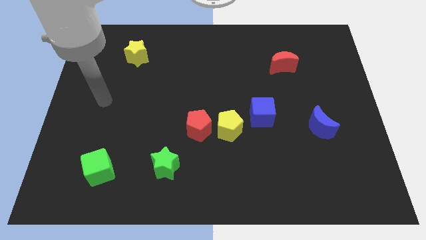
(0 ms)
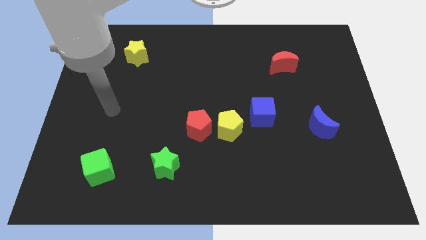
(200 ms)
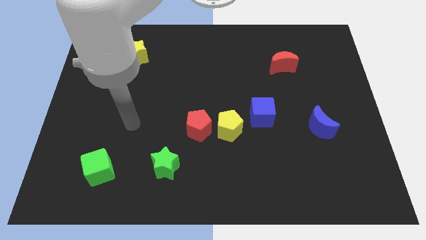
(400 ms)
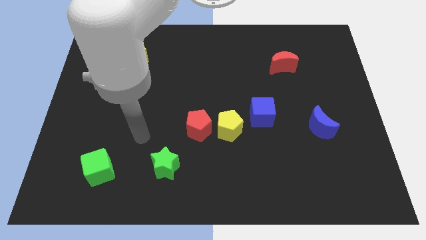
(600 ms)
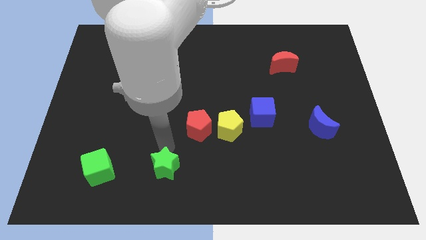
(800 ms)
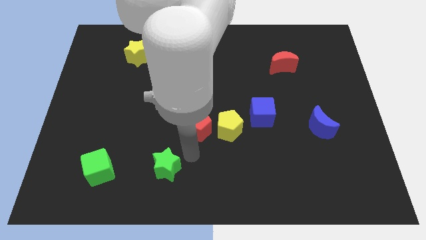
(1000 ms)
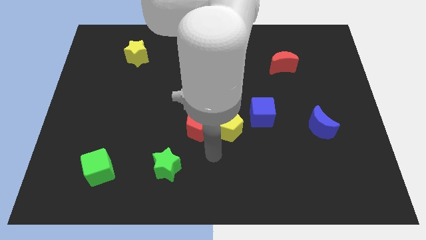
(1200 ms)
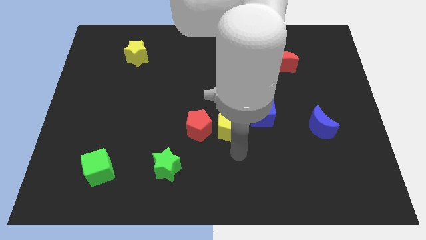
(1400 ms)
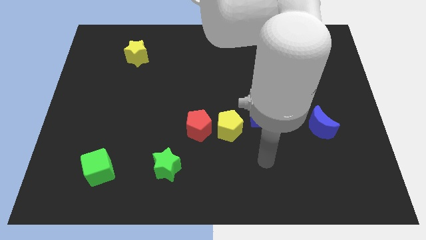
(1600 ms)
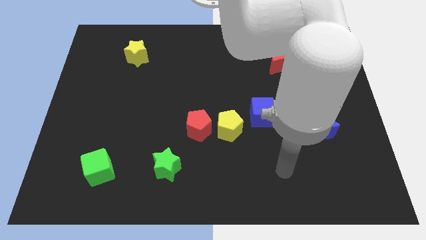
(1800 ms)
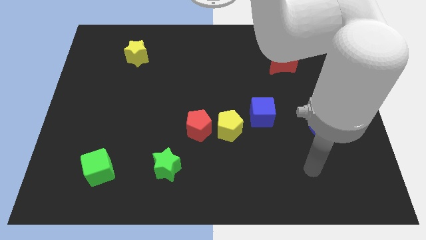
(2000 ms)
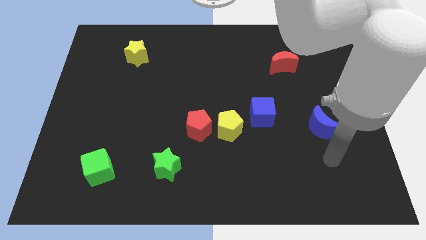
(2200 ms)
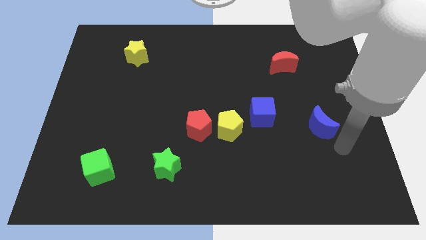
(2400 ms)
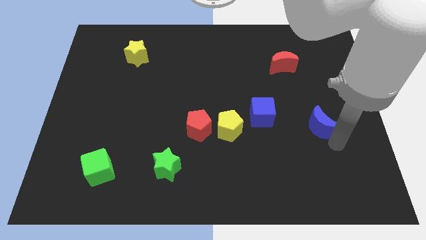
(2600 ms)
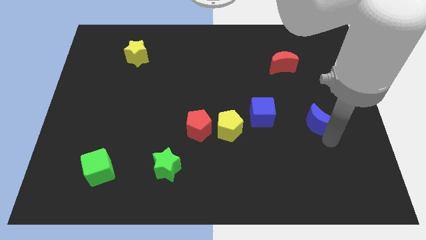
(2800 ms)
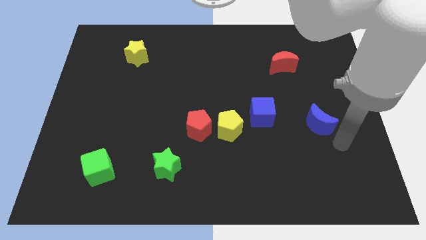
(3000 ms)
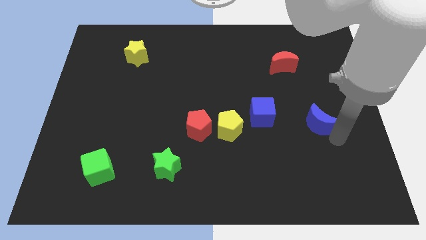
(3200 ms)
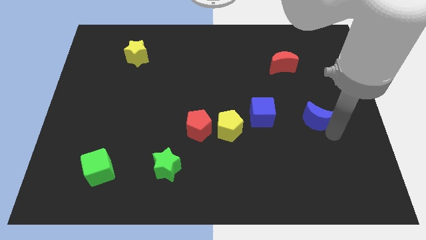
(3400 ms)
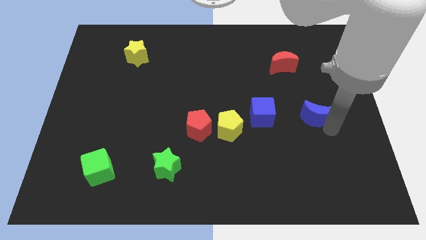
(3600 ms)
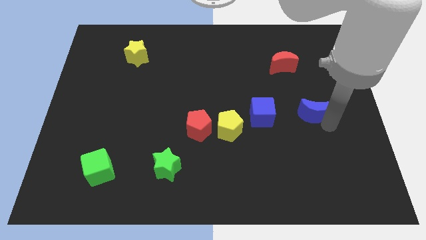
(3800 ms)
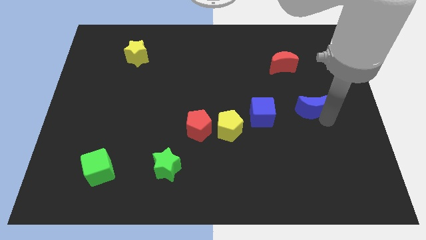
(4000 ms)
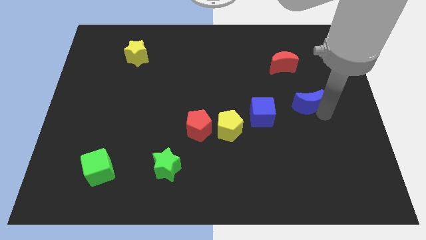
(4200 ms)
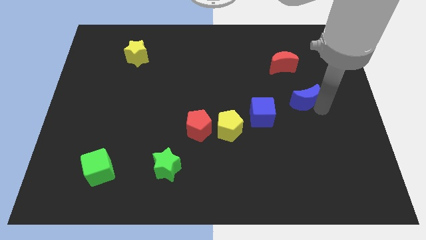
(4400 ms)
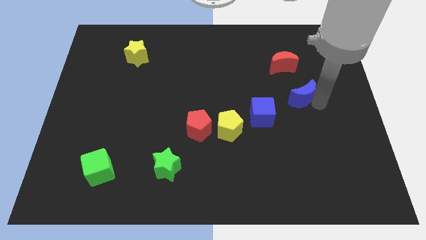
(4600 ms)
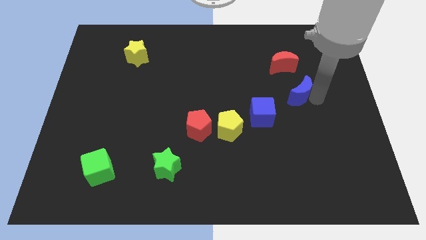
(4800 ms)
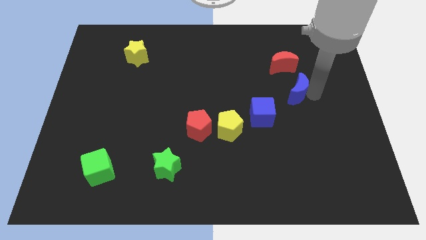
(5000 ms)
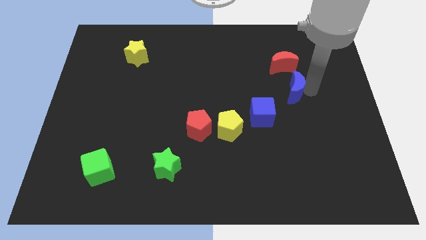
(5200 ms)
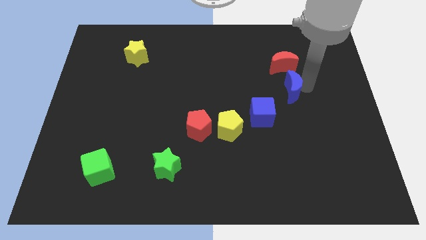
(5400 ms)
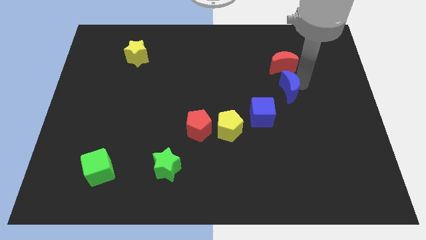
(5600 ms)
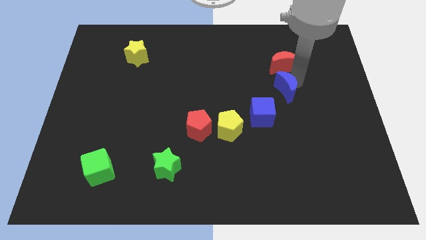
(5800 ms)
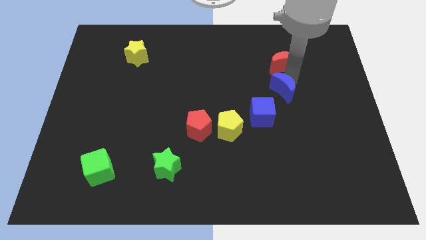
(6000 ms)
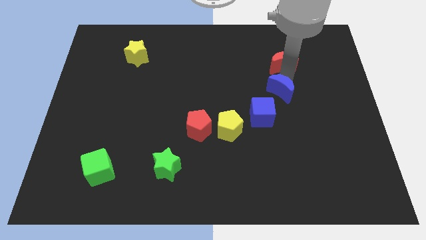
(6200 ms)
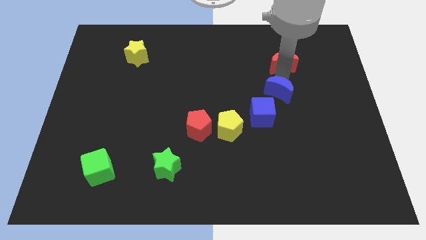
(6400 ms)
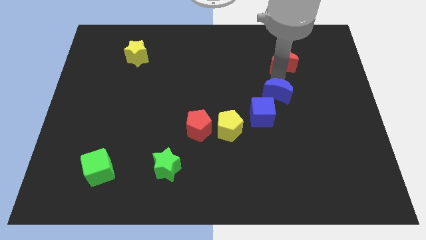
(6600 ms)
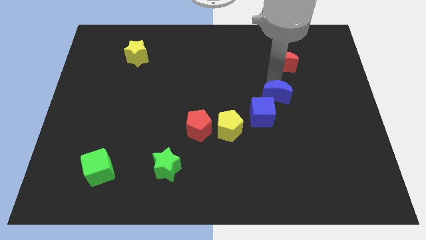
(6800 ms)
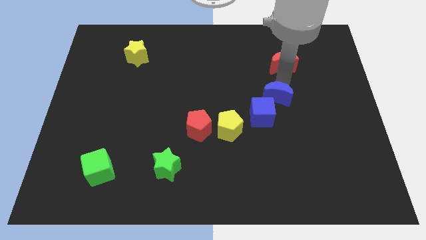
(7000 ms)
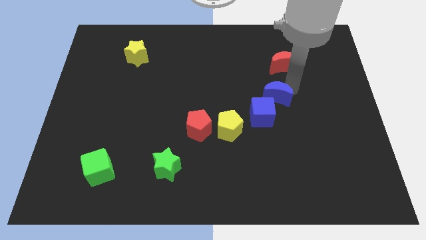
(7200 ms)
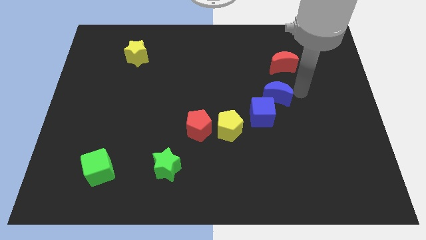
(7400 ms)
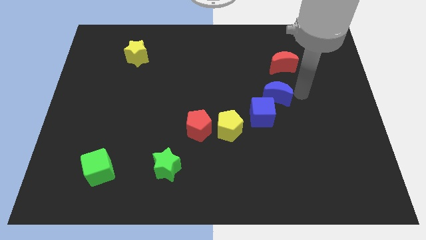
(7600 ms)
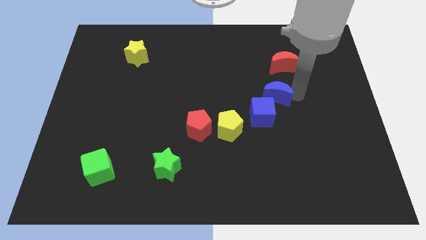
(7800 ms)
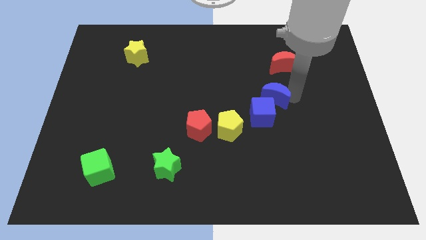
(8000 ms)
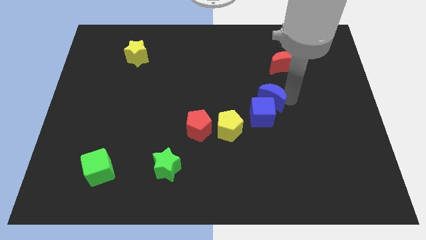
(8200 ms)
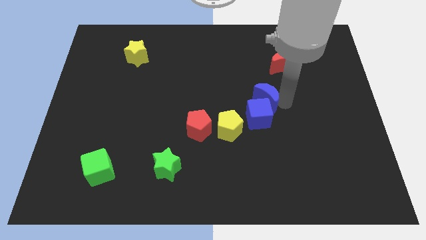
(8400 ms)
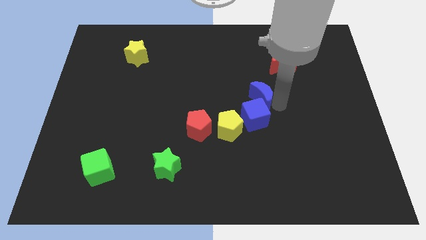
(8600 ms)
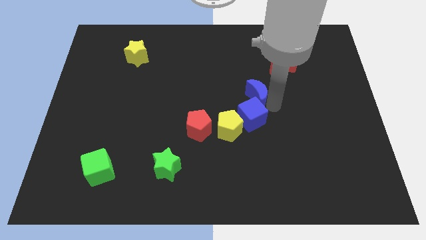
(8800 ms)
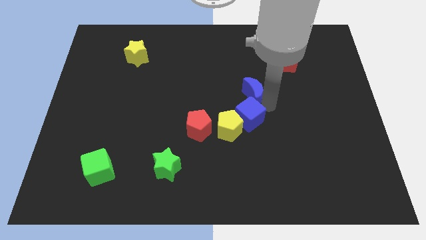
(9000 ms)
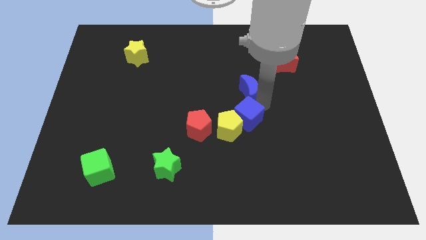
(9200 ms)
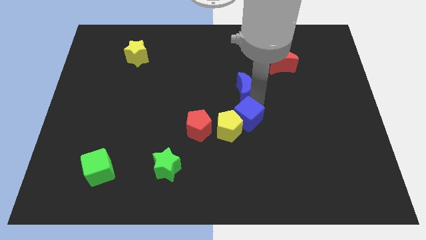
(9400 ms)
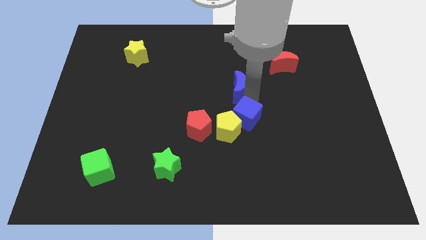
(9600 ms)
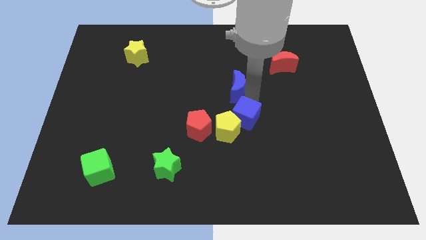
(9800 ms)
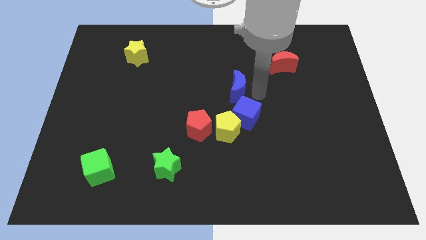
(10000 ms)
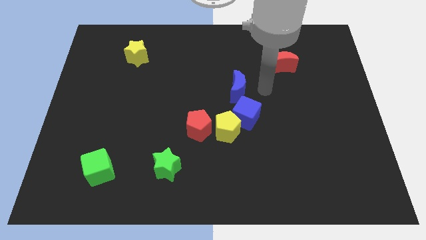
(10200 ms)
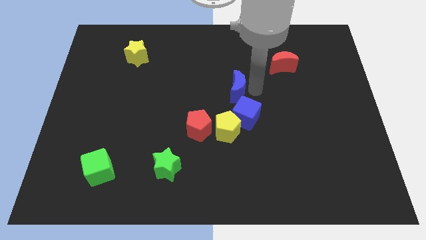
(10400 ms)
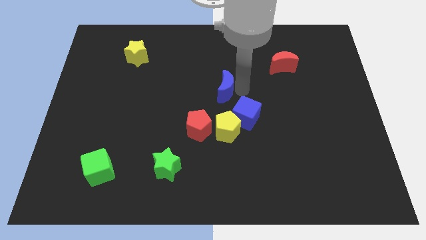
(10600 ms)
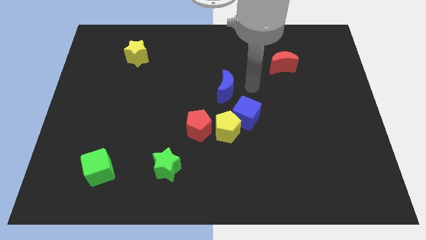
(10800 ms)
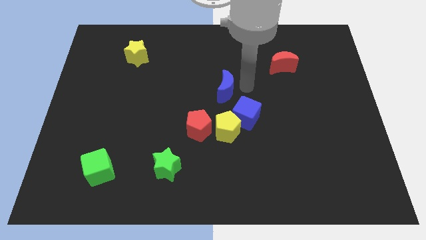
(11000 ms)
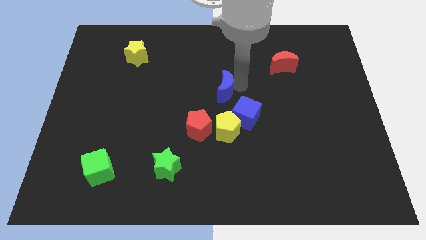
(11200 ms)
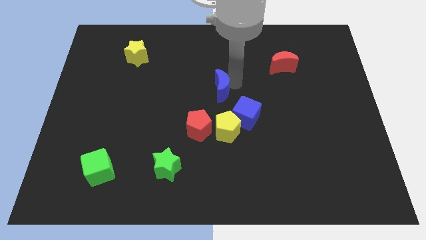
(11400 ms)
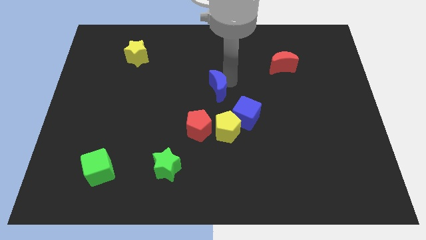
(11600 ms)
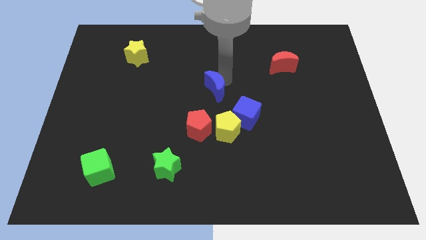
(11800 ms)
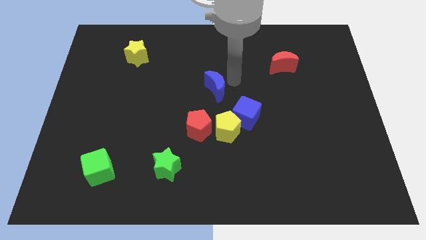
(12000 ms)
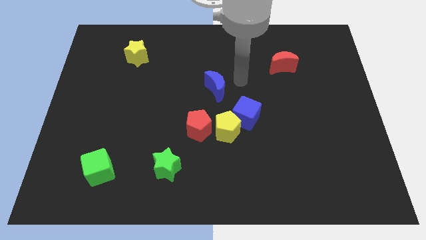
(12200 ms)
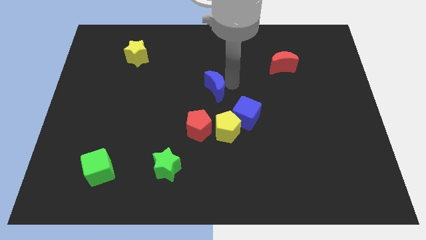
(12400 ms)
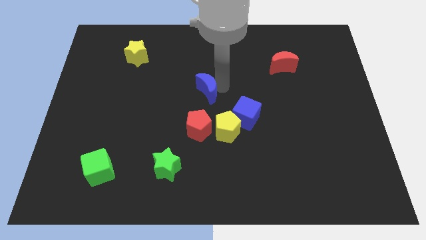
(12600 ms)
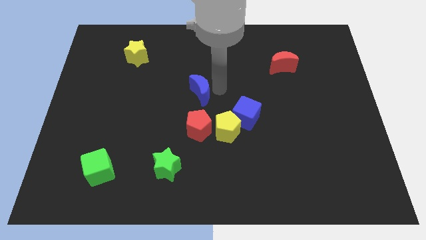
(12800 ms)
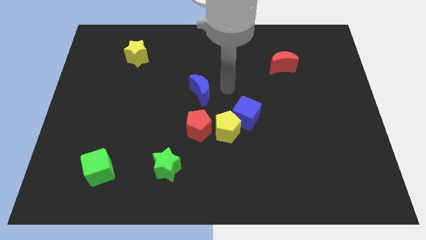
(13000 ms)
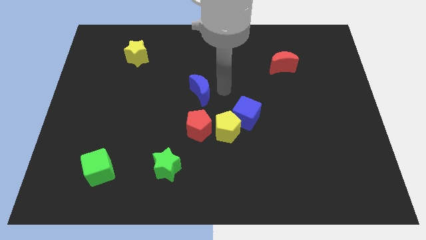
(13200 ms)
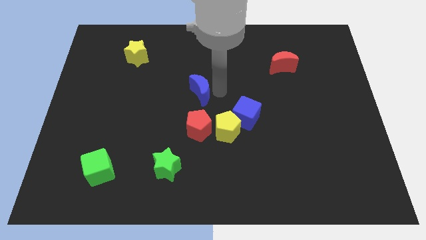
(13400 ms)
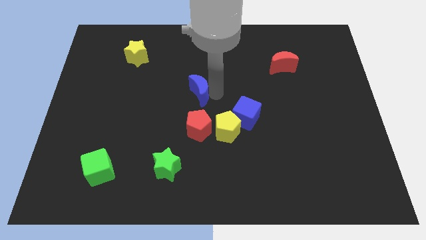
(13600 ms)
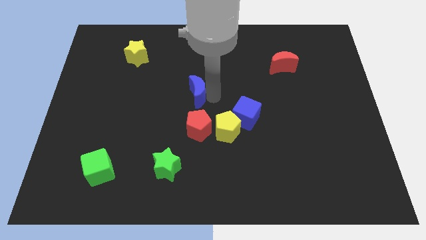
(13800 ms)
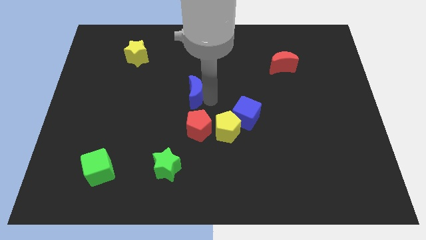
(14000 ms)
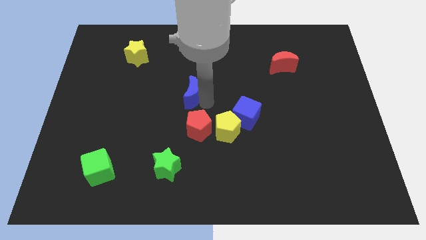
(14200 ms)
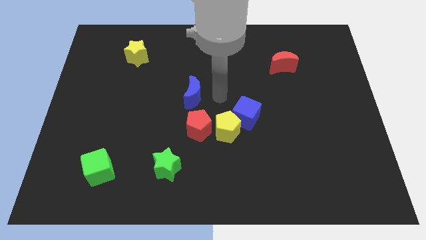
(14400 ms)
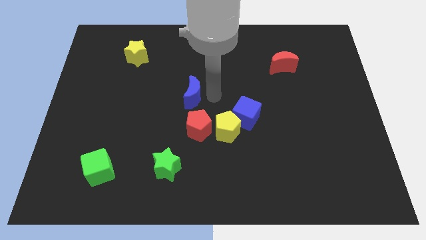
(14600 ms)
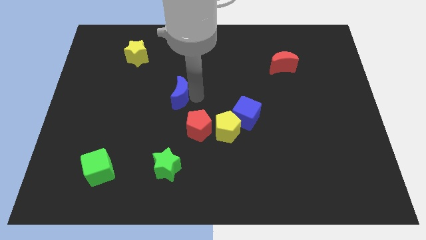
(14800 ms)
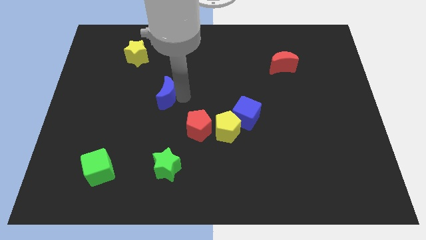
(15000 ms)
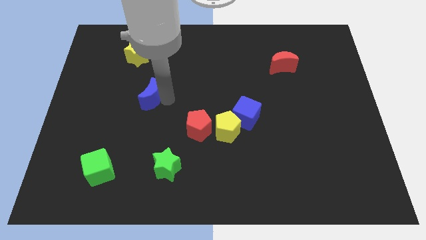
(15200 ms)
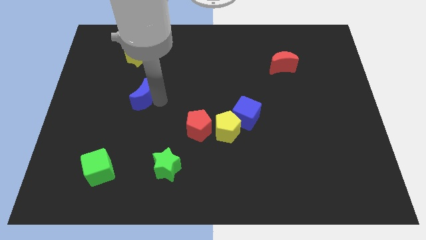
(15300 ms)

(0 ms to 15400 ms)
slide the blue moon to the bottom side of the yellow star
